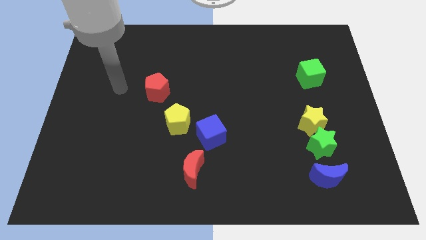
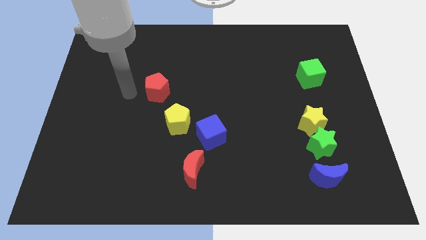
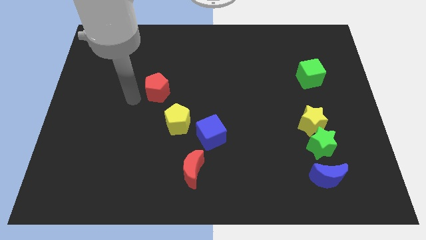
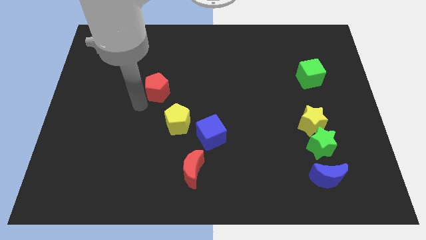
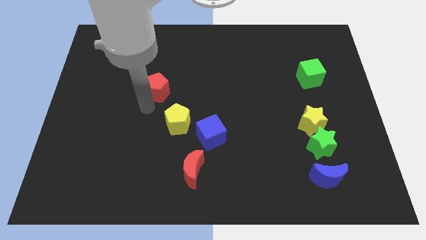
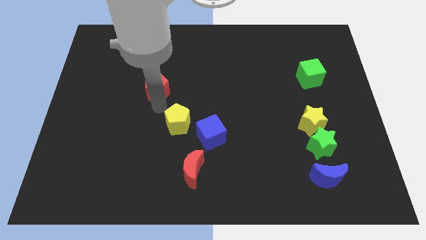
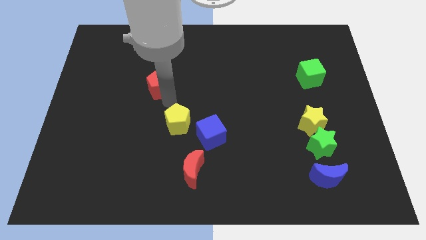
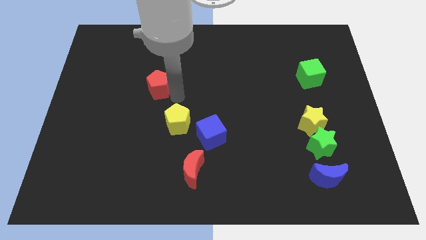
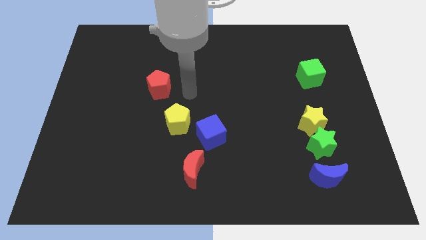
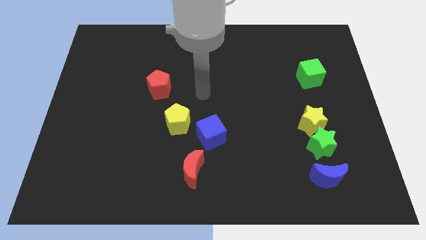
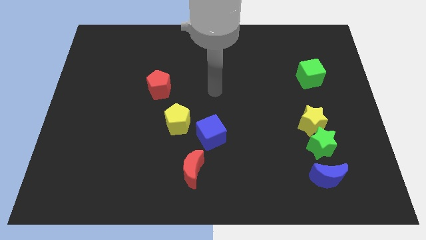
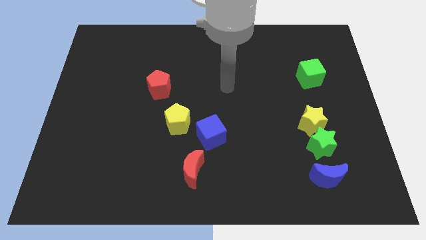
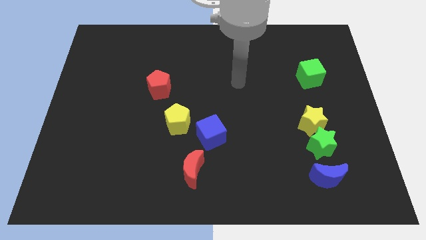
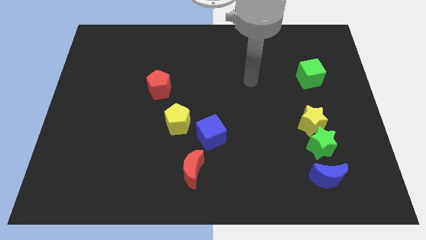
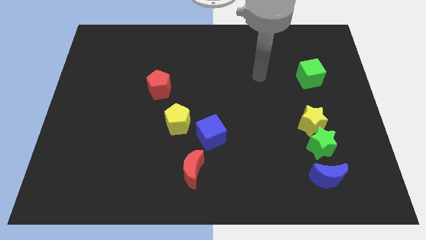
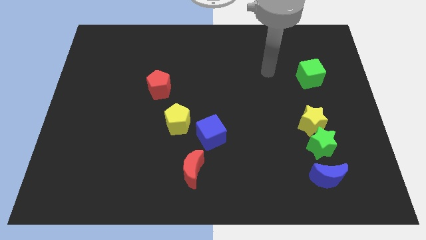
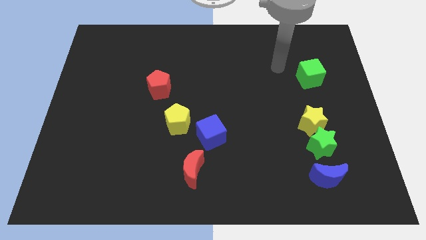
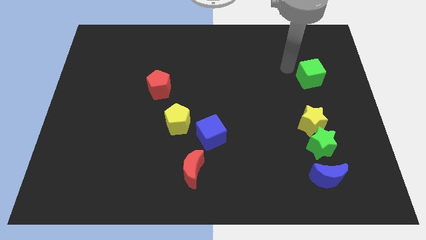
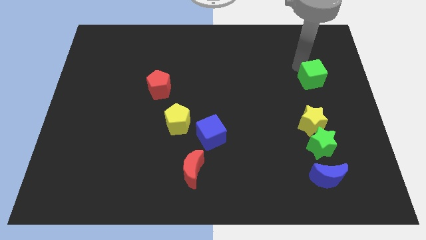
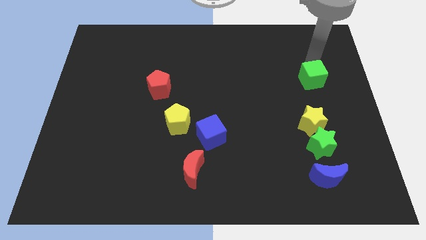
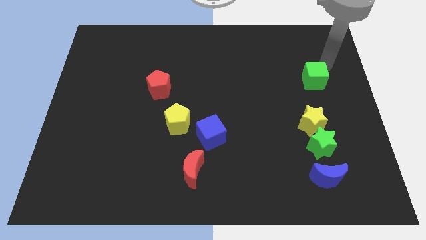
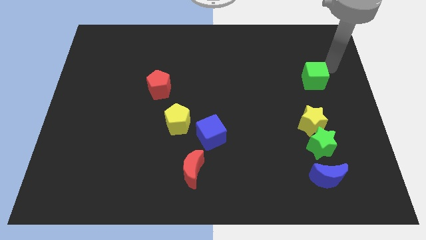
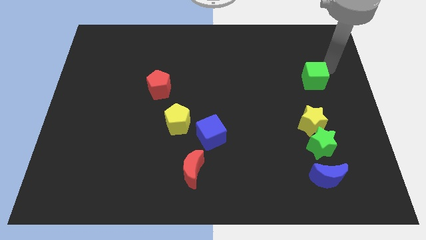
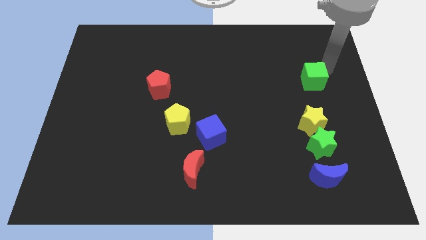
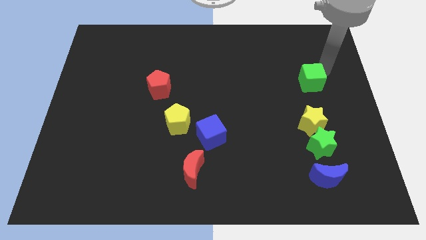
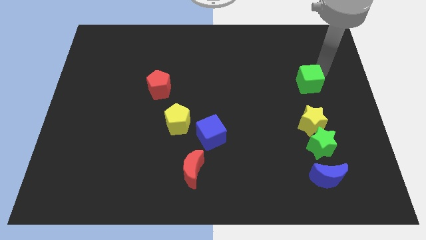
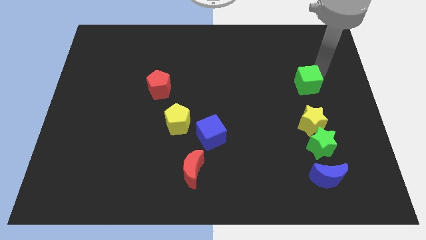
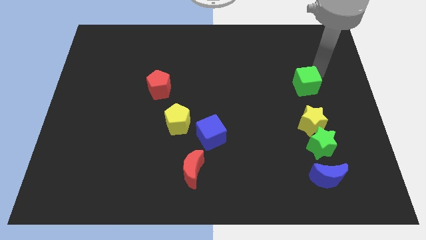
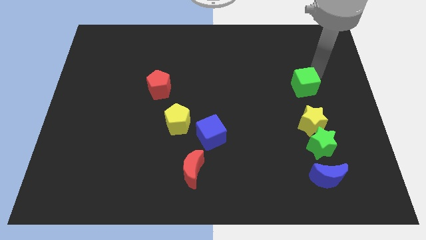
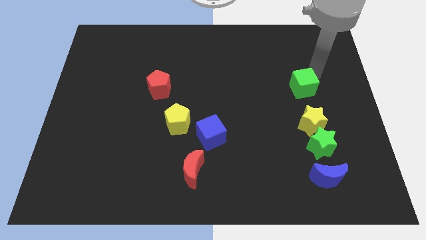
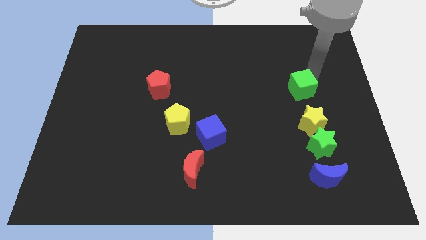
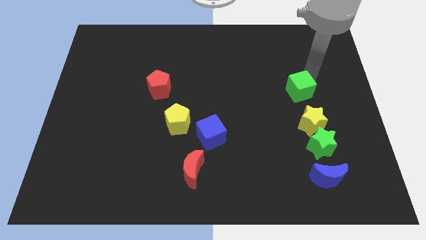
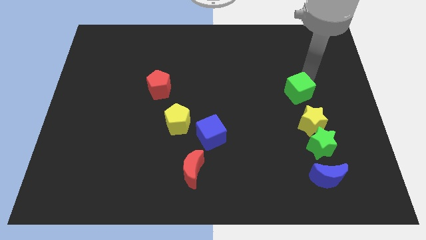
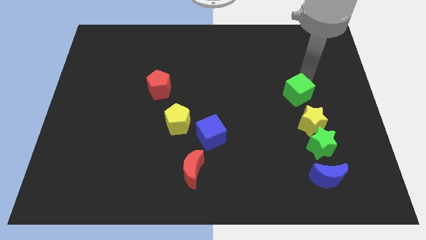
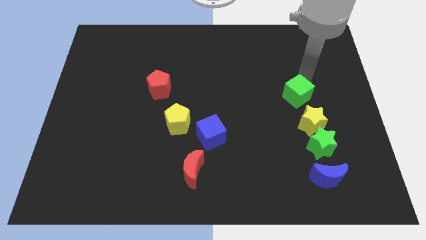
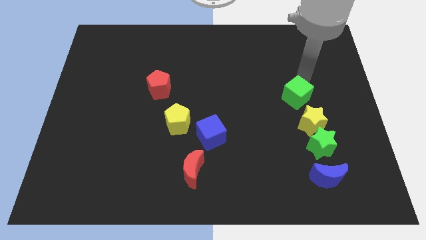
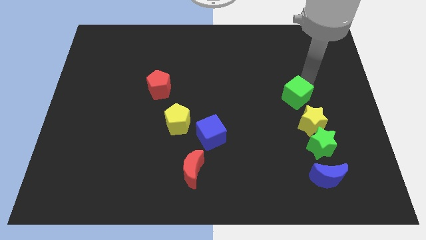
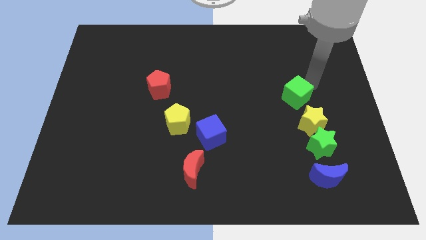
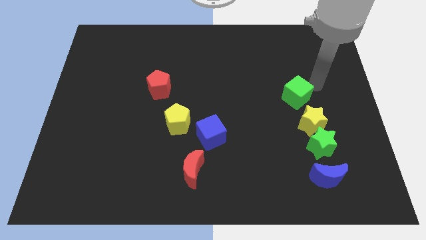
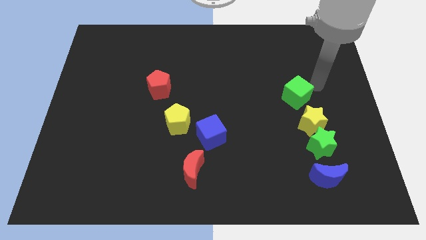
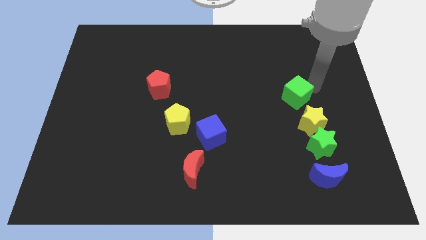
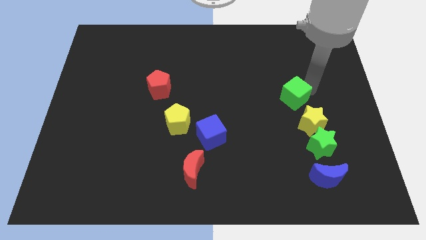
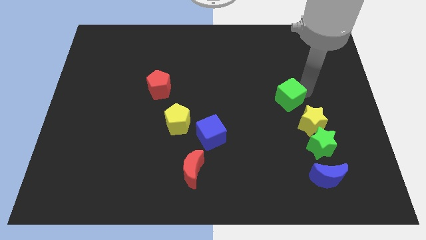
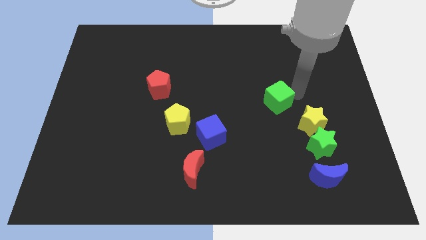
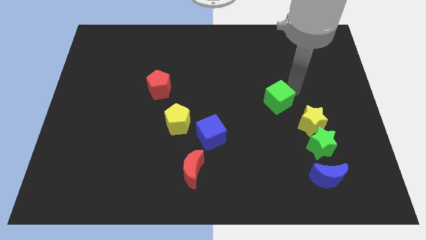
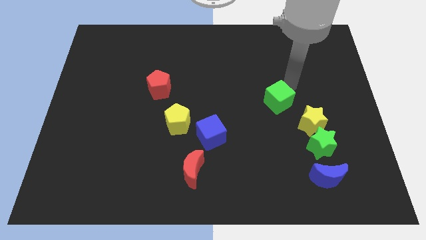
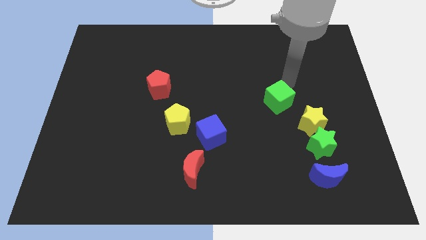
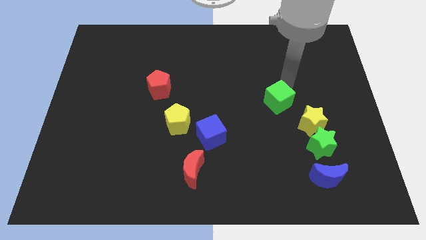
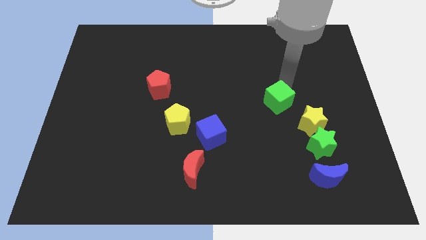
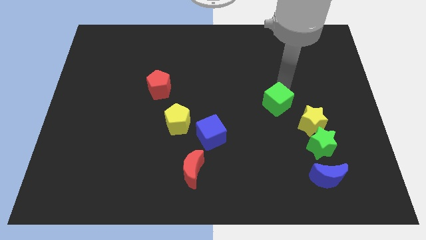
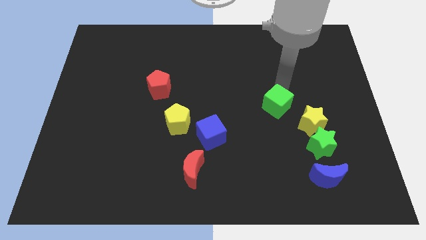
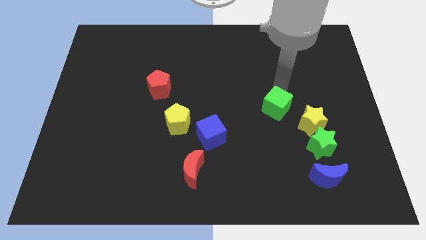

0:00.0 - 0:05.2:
move the green cube to the left side of the yellow star

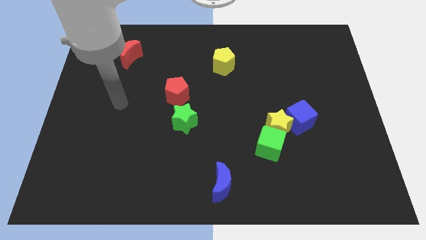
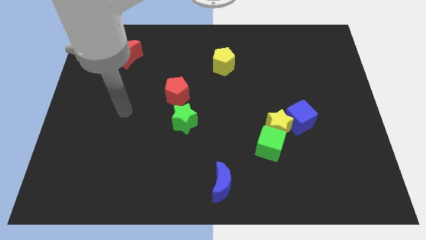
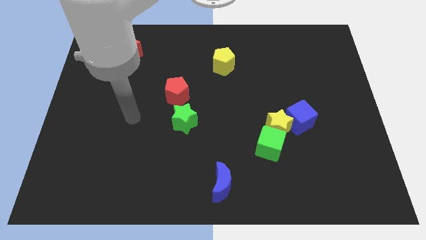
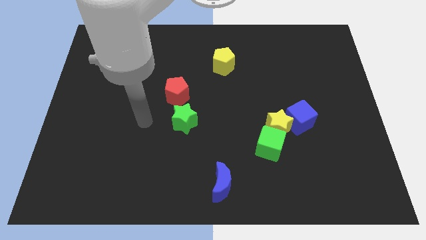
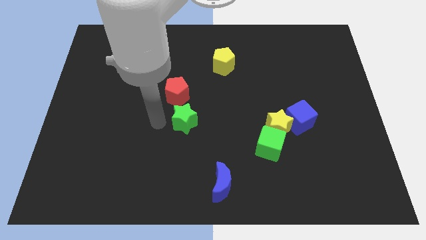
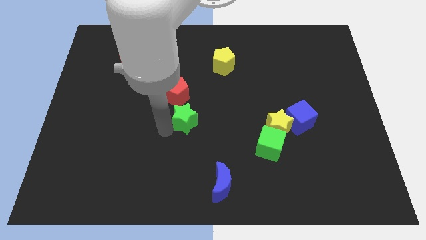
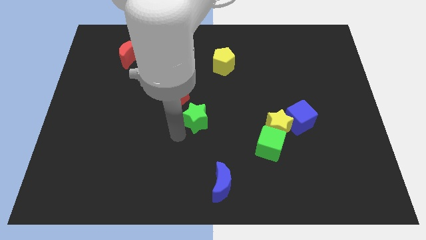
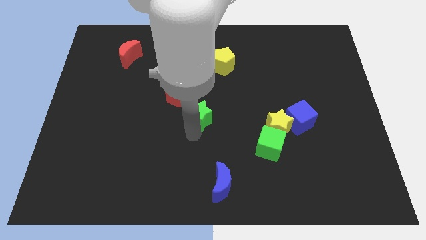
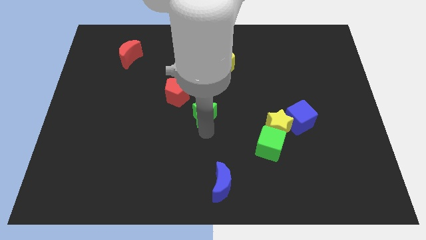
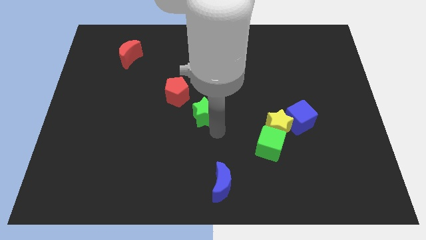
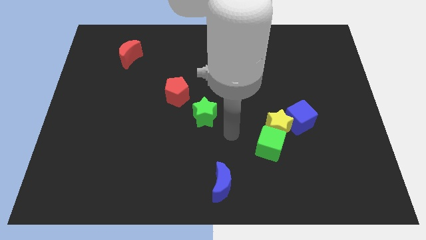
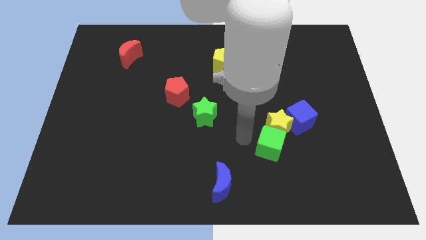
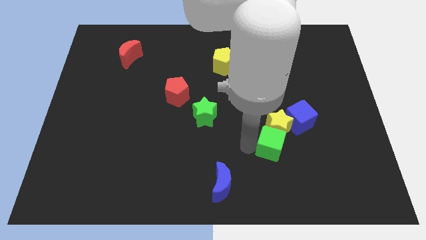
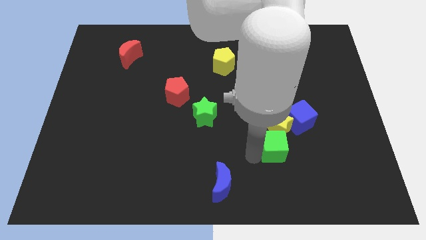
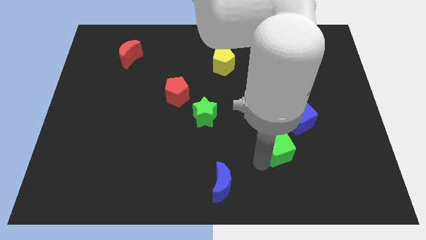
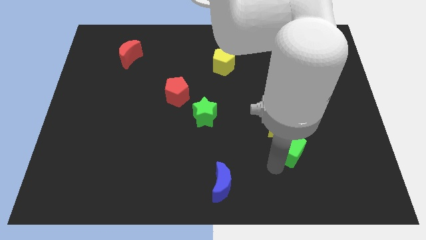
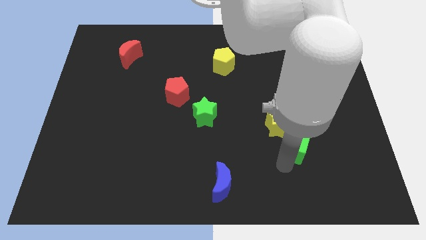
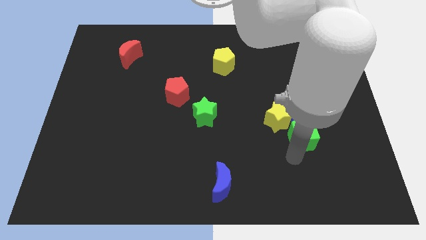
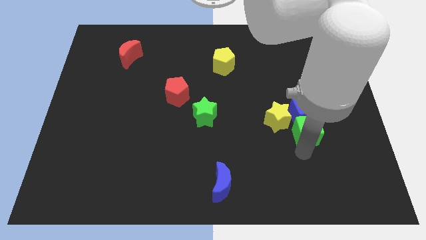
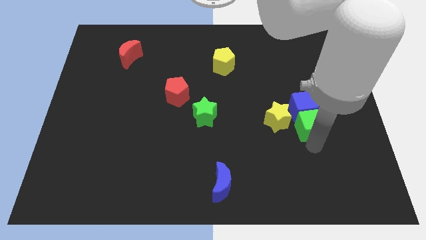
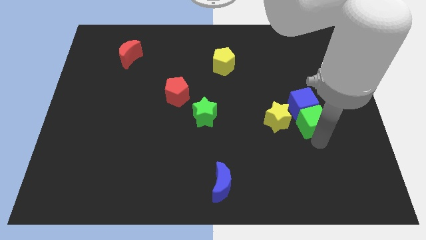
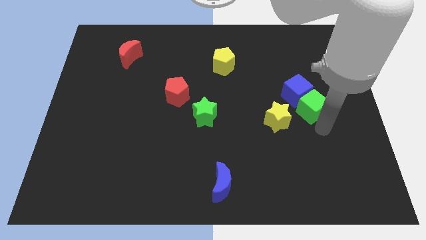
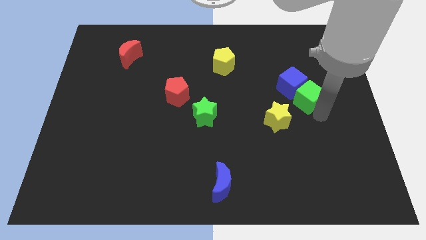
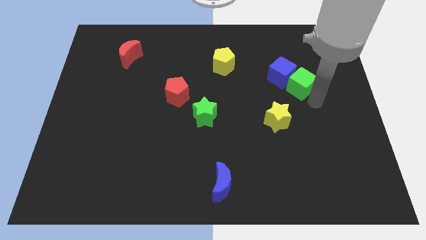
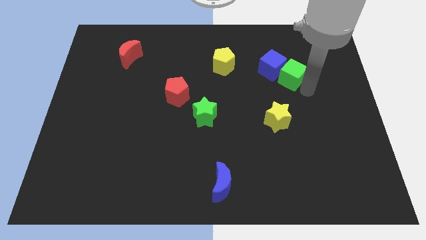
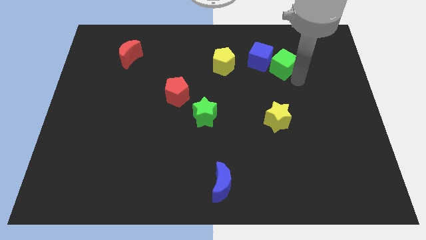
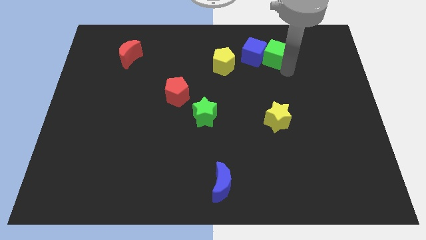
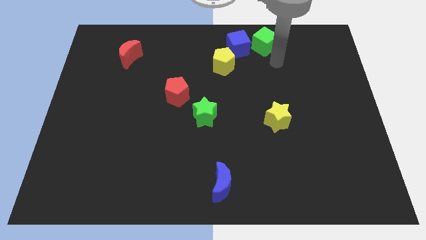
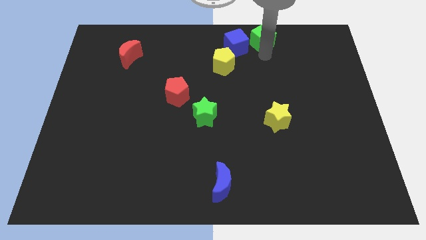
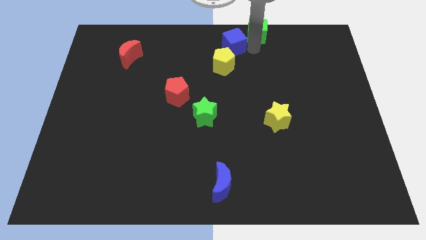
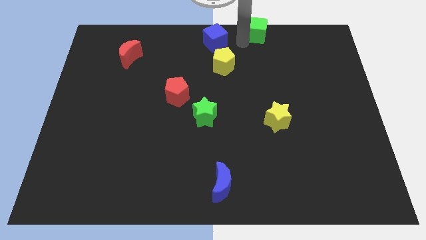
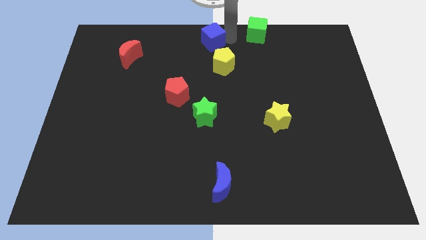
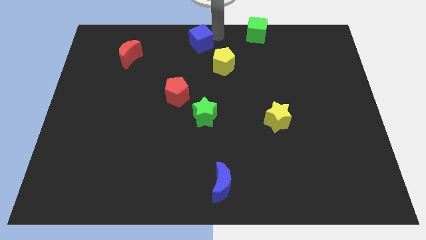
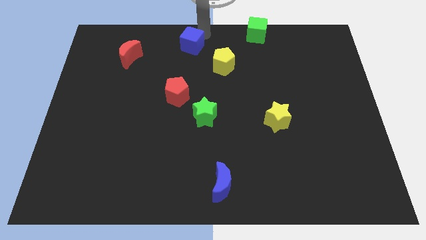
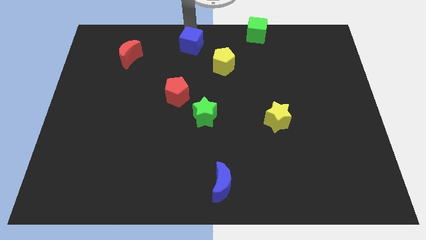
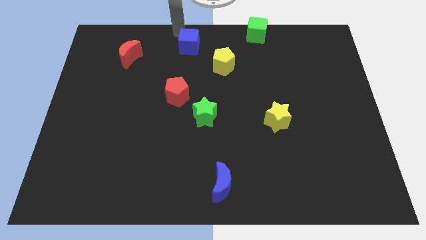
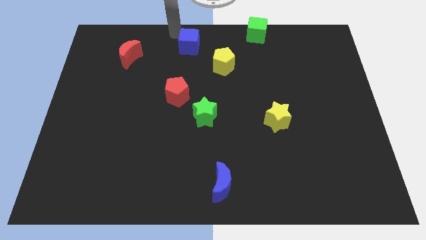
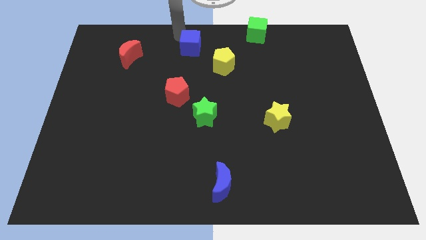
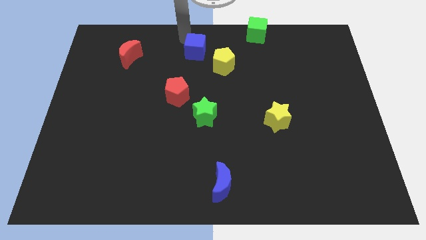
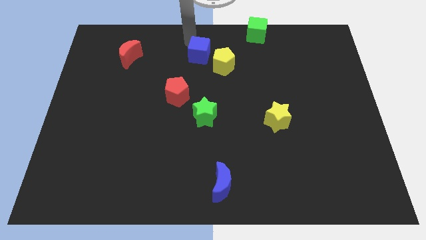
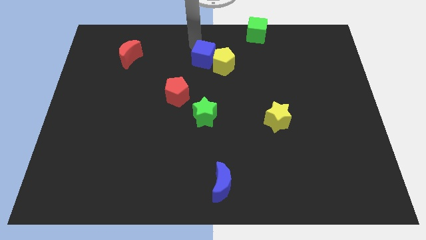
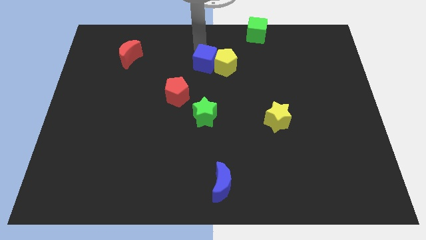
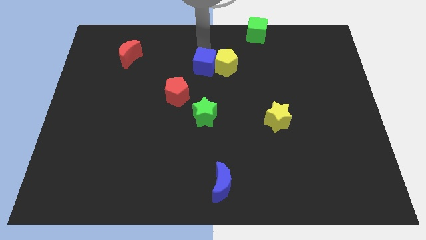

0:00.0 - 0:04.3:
slide the blue cube to the top of the green star
